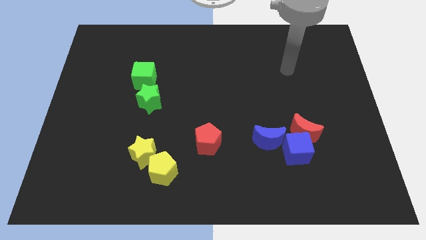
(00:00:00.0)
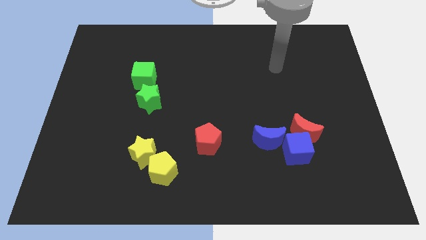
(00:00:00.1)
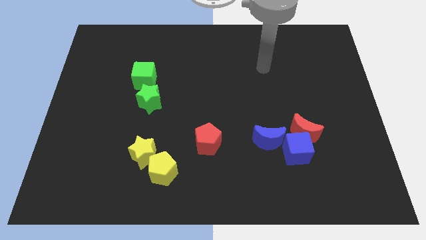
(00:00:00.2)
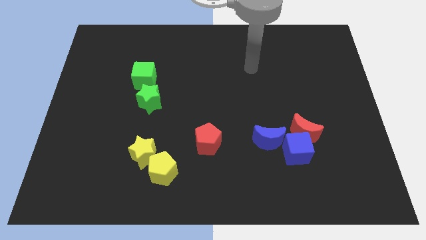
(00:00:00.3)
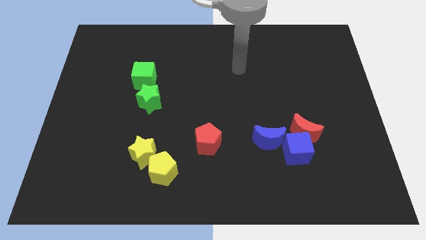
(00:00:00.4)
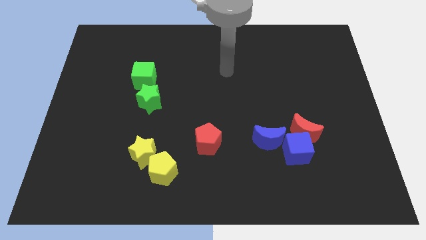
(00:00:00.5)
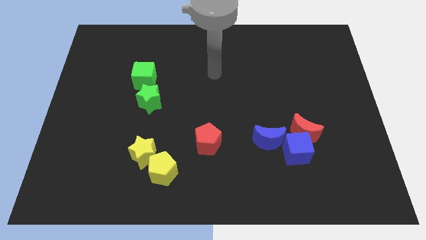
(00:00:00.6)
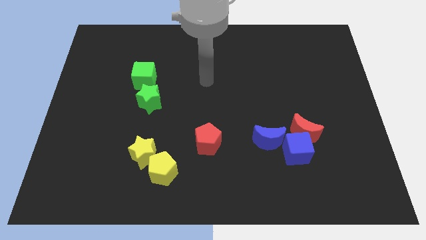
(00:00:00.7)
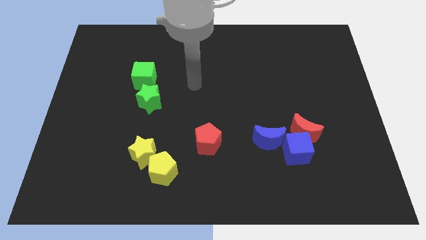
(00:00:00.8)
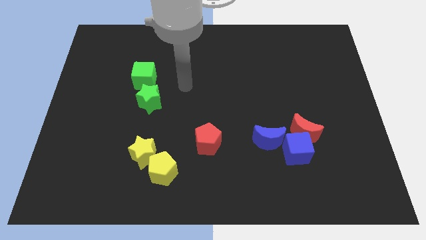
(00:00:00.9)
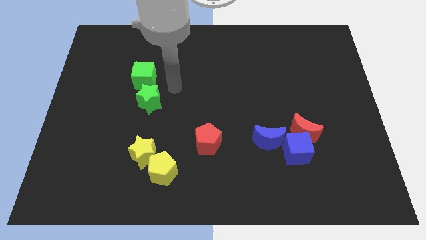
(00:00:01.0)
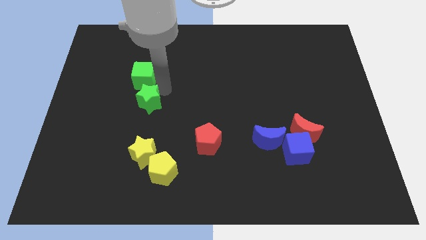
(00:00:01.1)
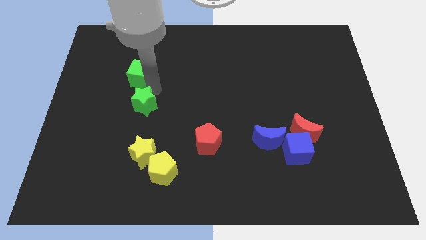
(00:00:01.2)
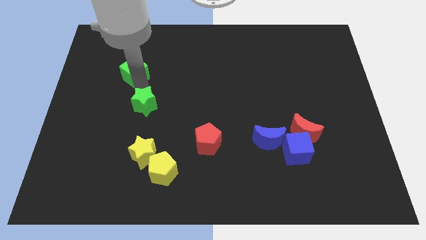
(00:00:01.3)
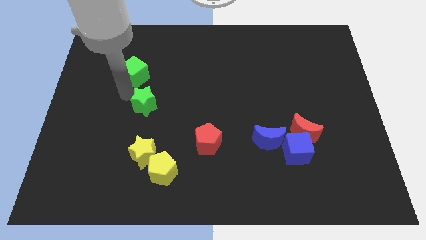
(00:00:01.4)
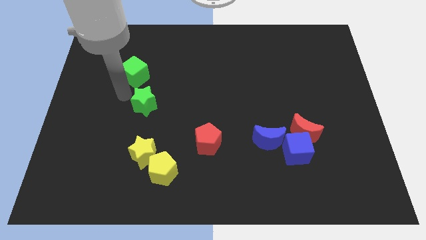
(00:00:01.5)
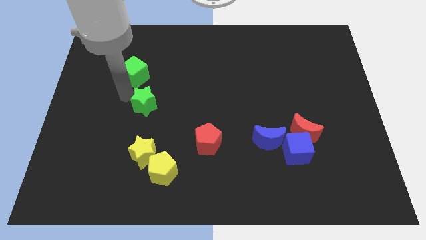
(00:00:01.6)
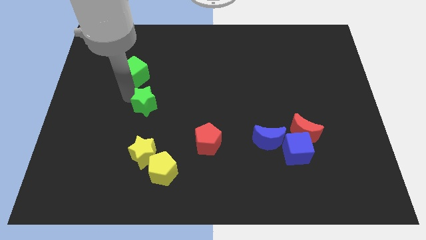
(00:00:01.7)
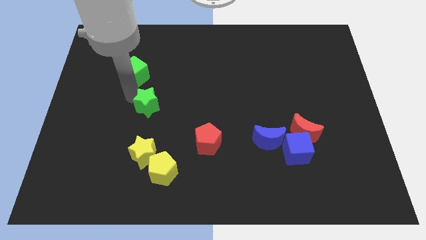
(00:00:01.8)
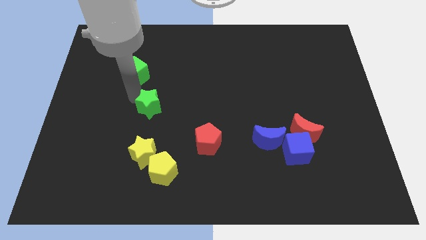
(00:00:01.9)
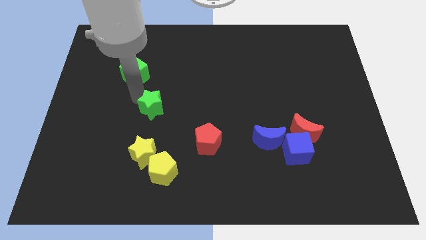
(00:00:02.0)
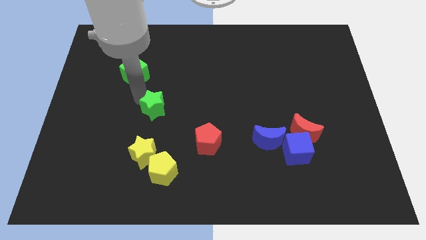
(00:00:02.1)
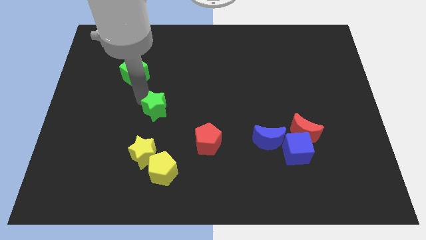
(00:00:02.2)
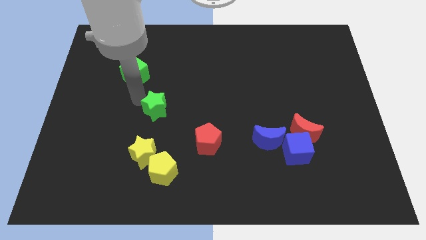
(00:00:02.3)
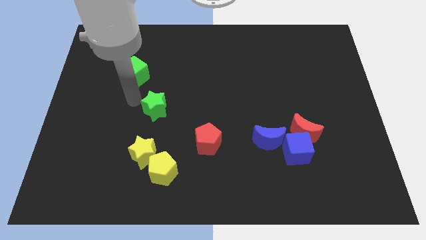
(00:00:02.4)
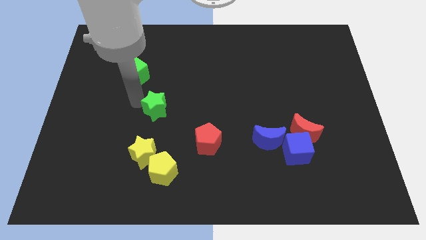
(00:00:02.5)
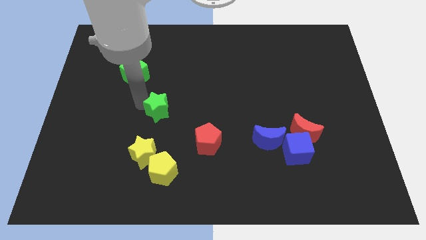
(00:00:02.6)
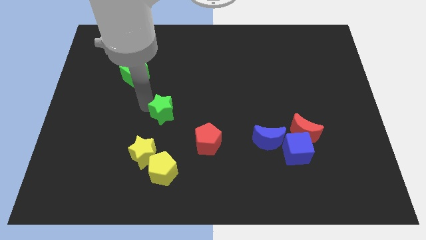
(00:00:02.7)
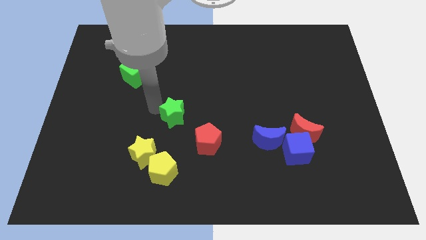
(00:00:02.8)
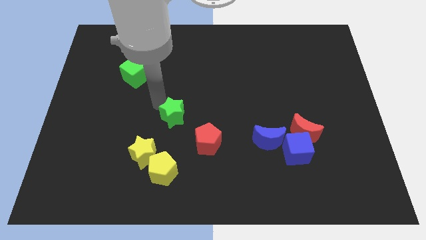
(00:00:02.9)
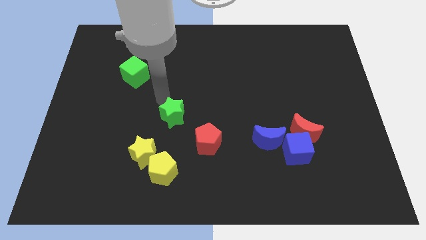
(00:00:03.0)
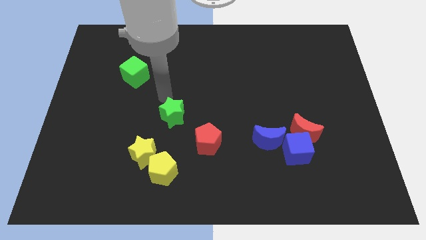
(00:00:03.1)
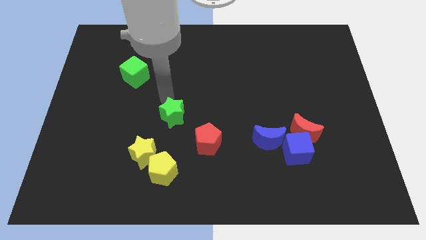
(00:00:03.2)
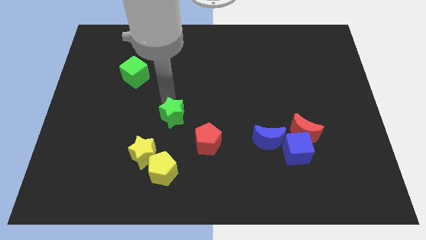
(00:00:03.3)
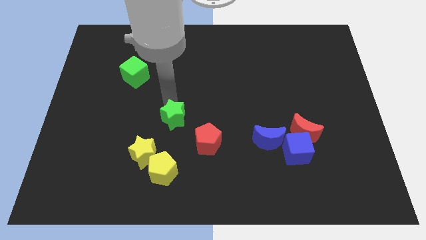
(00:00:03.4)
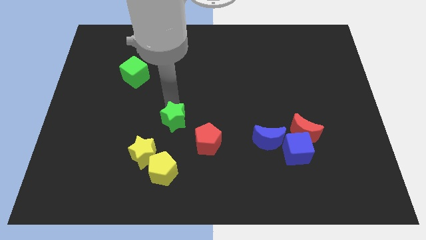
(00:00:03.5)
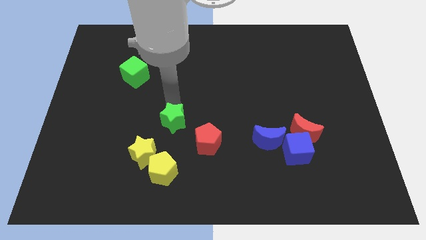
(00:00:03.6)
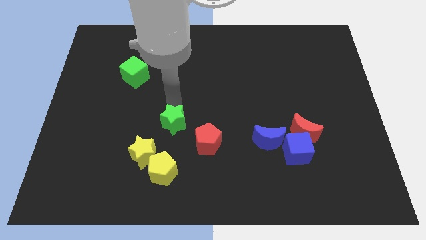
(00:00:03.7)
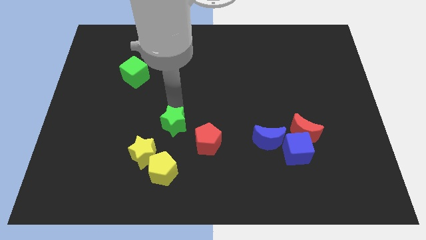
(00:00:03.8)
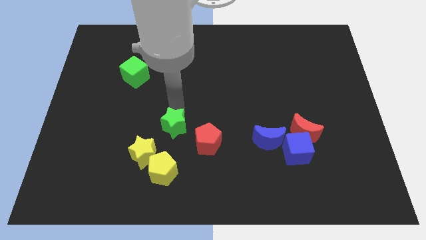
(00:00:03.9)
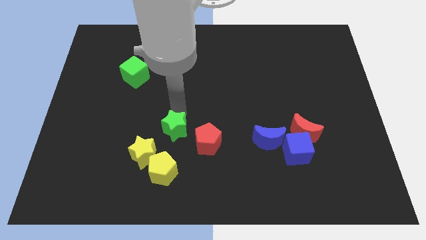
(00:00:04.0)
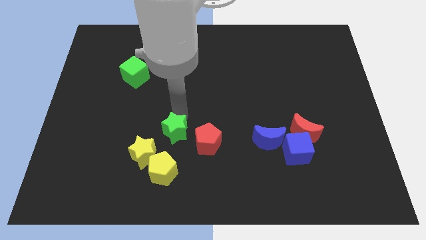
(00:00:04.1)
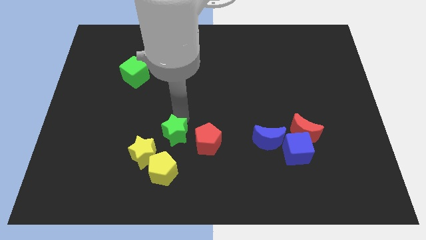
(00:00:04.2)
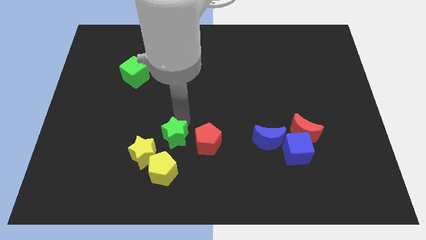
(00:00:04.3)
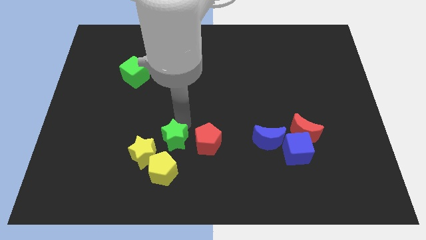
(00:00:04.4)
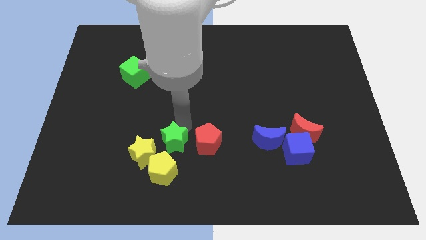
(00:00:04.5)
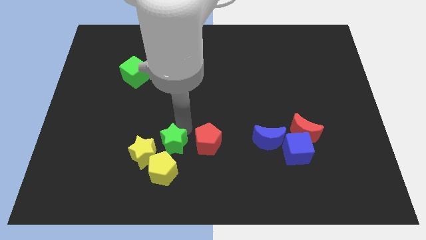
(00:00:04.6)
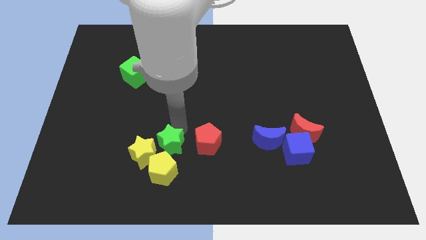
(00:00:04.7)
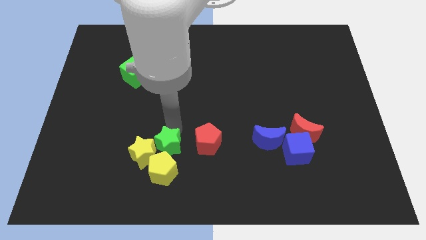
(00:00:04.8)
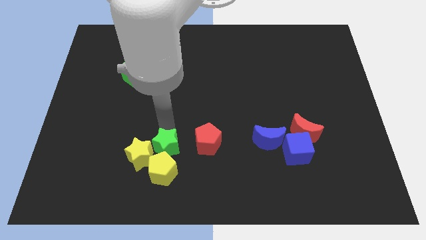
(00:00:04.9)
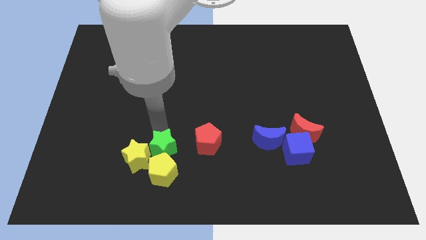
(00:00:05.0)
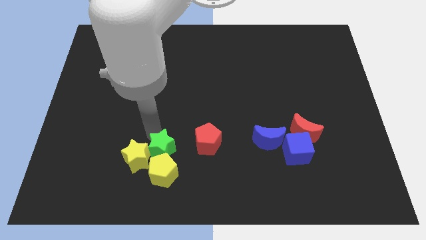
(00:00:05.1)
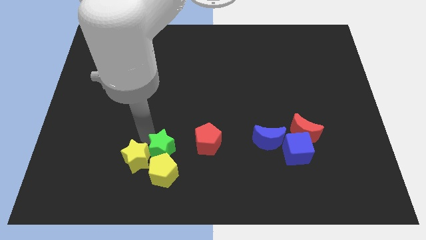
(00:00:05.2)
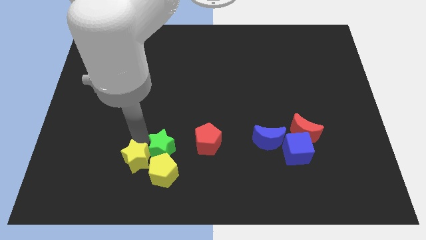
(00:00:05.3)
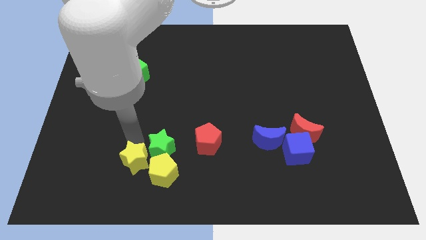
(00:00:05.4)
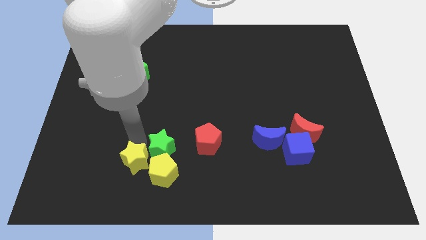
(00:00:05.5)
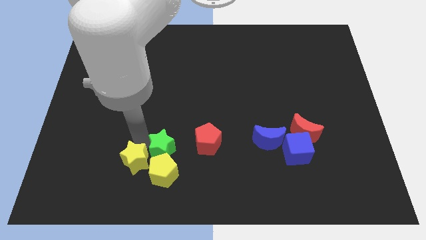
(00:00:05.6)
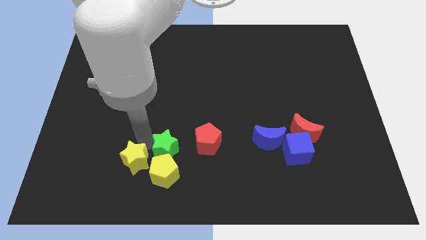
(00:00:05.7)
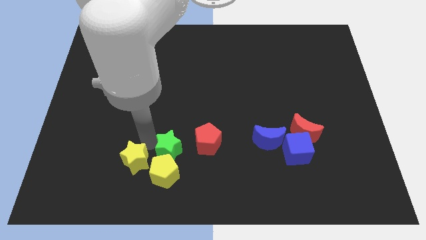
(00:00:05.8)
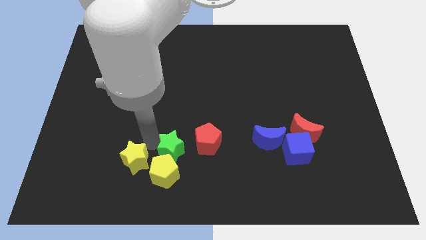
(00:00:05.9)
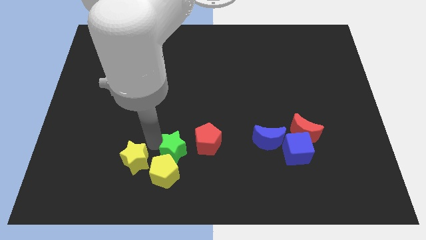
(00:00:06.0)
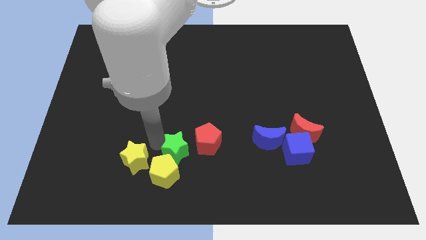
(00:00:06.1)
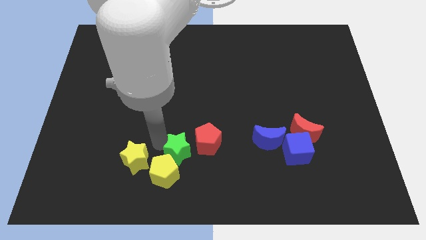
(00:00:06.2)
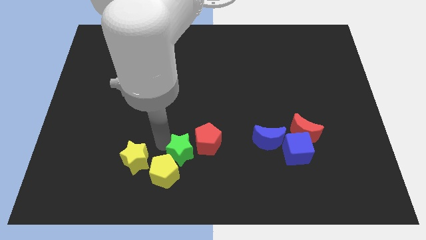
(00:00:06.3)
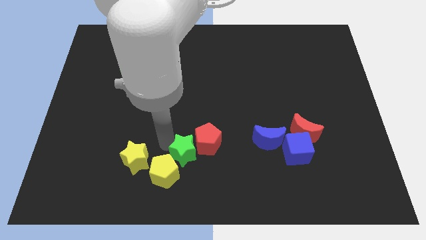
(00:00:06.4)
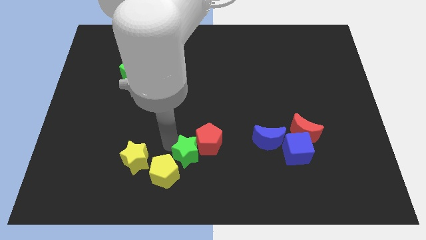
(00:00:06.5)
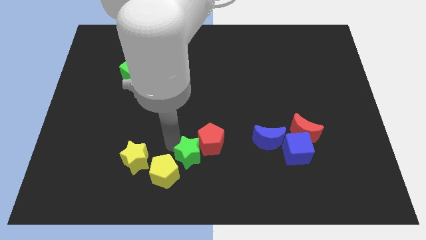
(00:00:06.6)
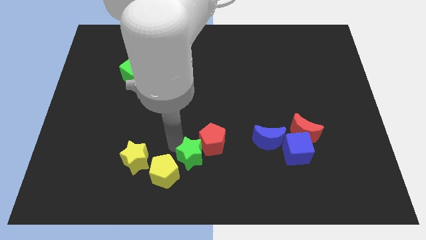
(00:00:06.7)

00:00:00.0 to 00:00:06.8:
push the green star to the bottom side
